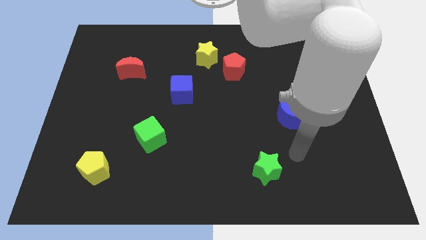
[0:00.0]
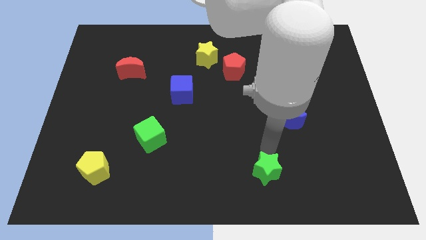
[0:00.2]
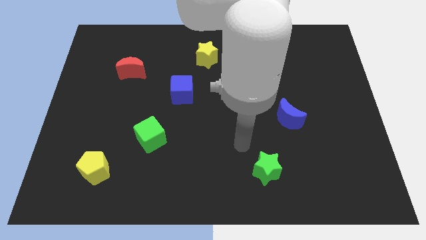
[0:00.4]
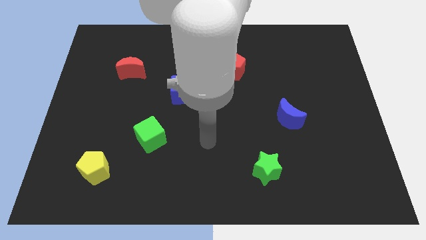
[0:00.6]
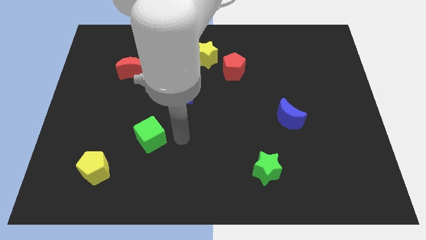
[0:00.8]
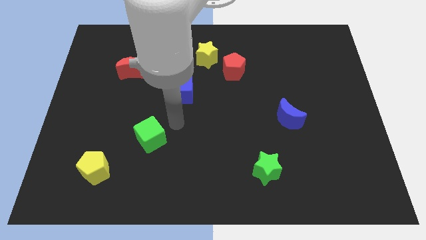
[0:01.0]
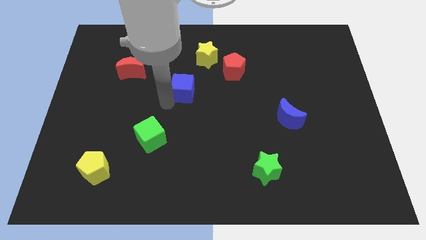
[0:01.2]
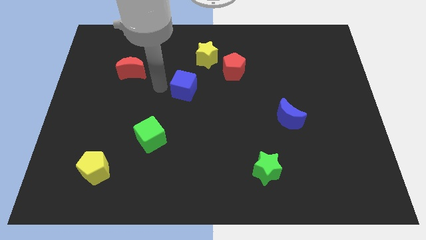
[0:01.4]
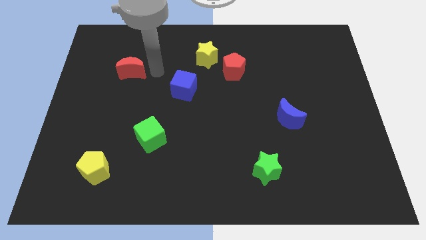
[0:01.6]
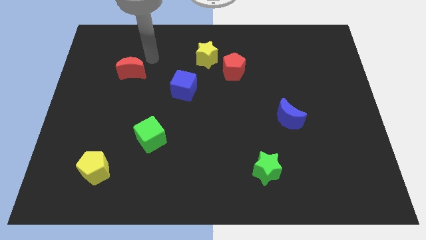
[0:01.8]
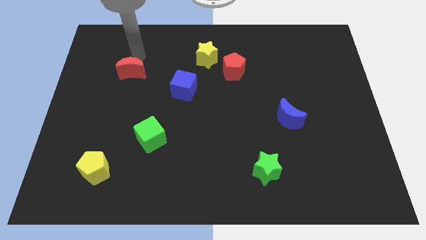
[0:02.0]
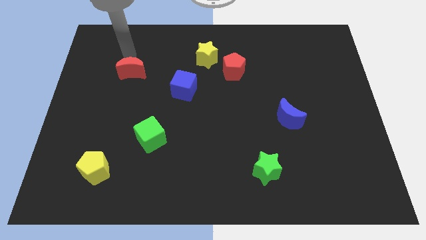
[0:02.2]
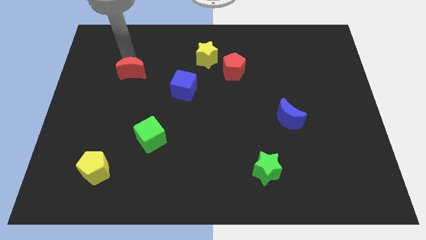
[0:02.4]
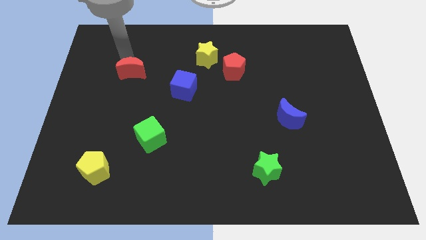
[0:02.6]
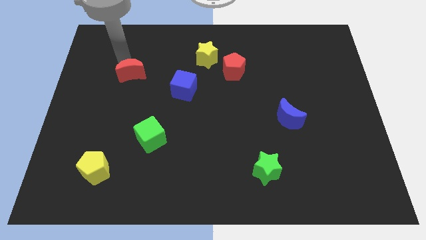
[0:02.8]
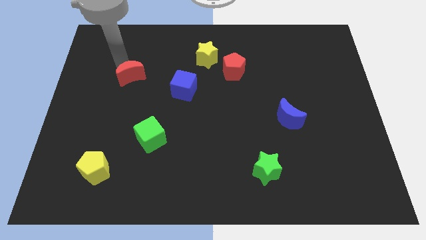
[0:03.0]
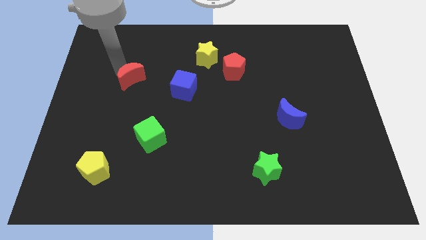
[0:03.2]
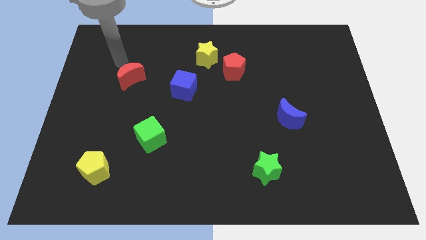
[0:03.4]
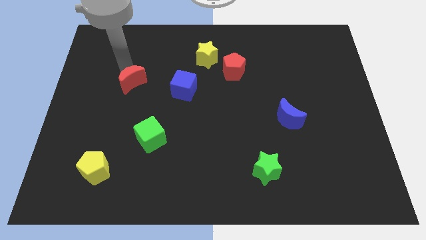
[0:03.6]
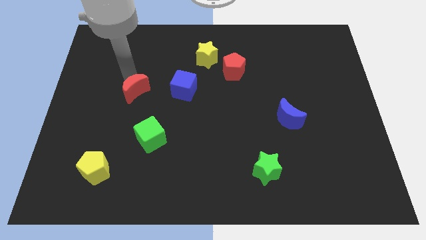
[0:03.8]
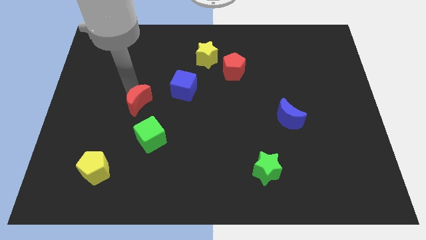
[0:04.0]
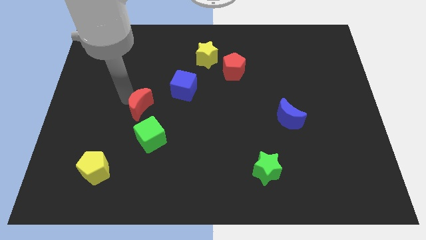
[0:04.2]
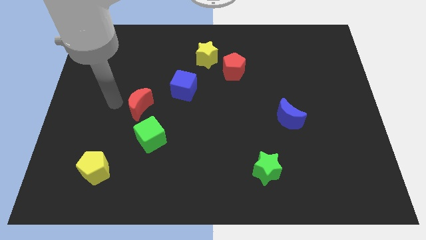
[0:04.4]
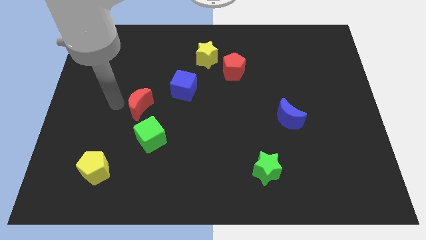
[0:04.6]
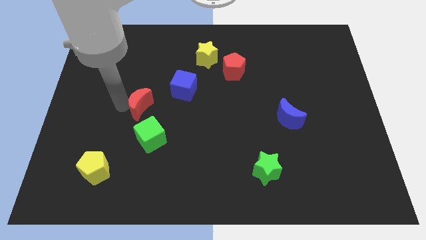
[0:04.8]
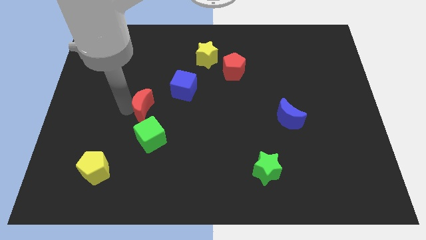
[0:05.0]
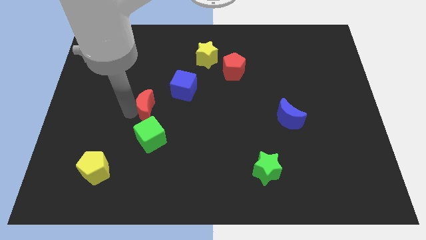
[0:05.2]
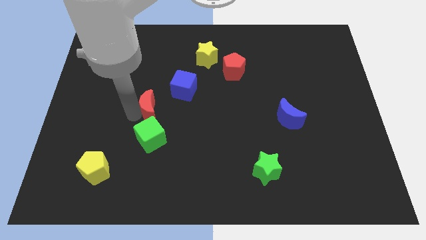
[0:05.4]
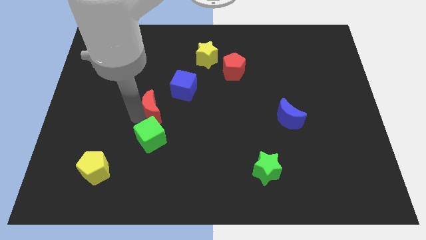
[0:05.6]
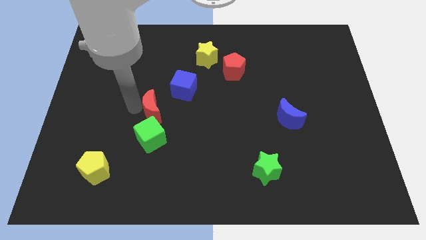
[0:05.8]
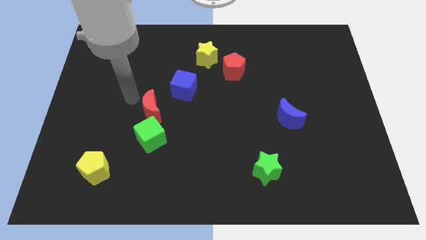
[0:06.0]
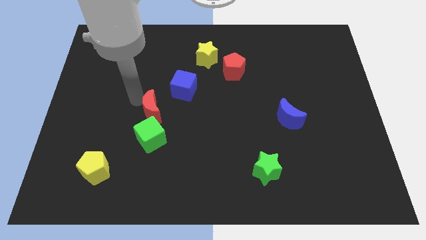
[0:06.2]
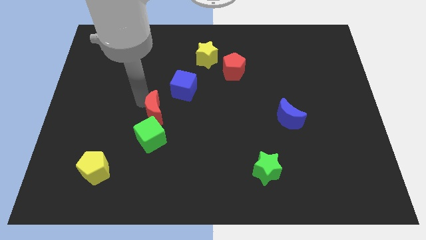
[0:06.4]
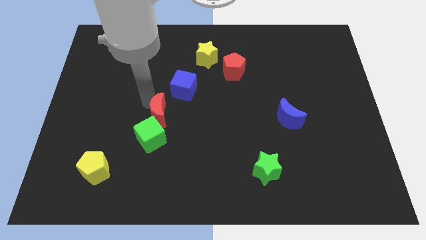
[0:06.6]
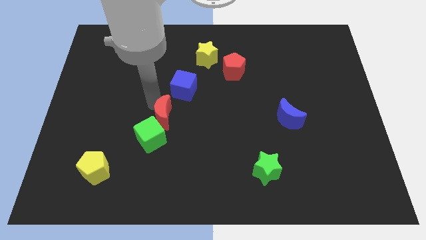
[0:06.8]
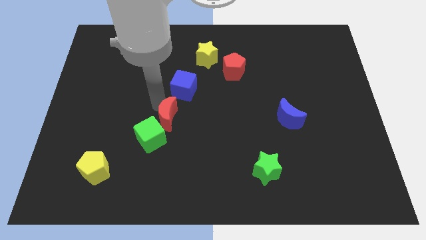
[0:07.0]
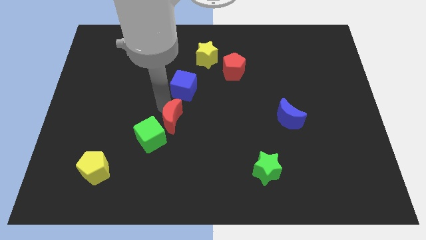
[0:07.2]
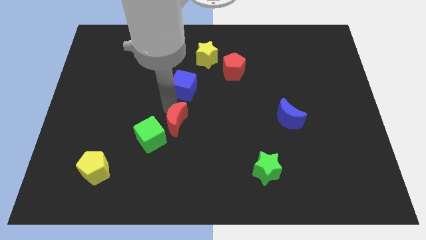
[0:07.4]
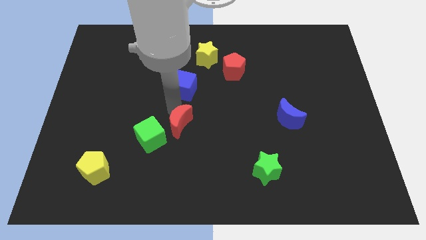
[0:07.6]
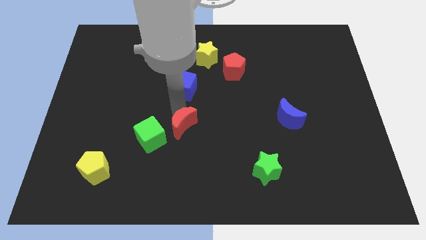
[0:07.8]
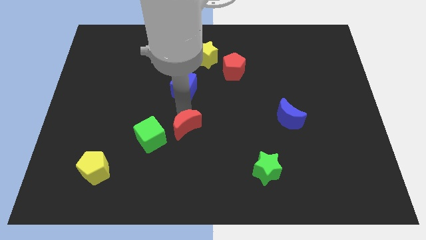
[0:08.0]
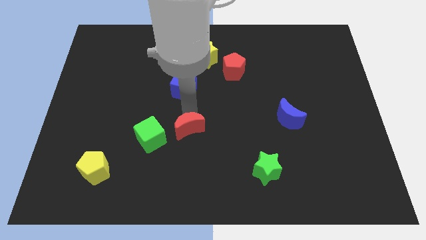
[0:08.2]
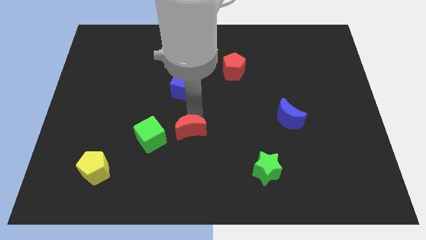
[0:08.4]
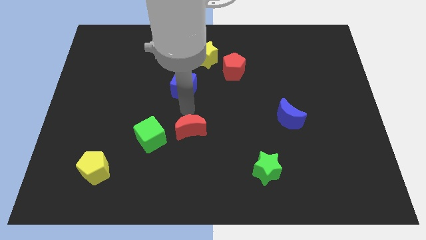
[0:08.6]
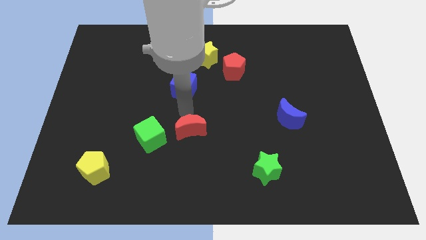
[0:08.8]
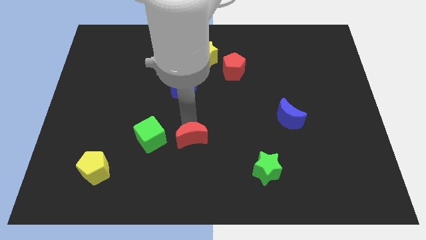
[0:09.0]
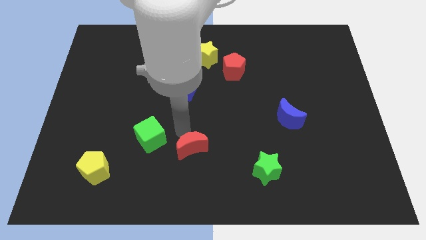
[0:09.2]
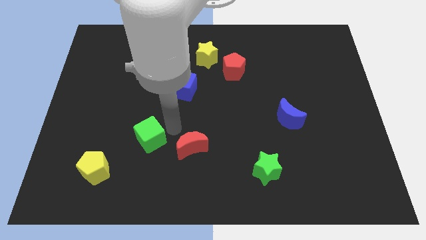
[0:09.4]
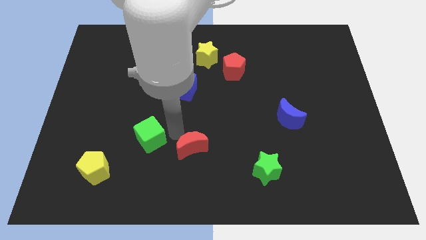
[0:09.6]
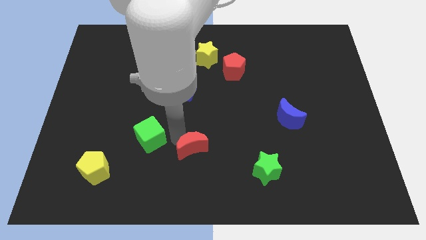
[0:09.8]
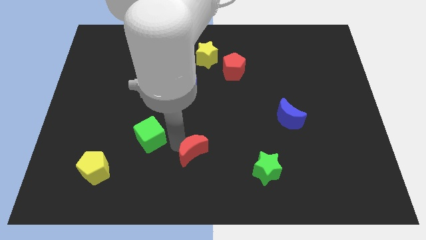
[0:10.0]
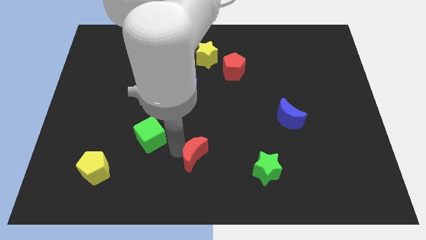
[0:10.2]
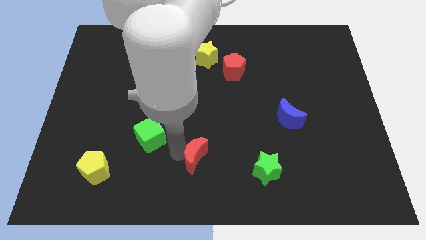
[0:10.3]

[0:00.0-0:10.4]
move the red moon to the left side of the green star

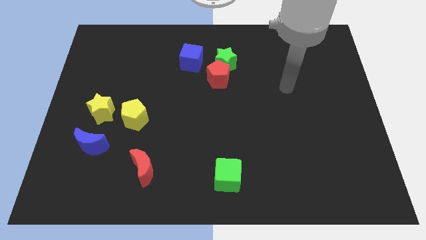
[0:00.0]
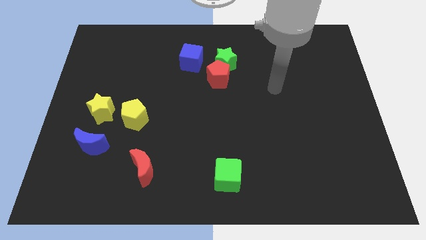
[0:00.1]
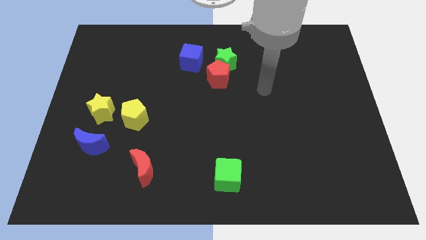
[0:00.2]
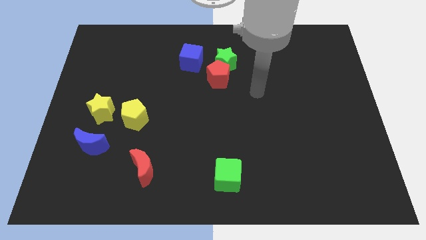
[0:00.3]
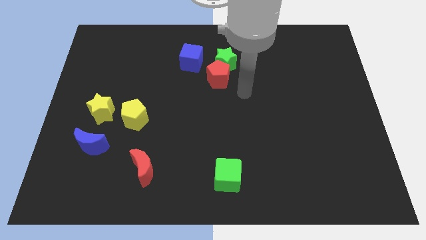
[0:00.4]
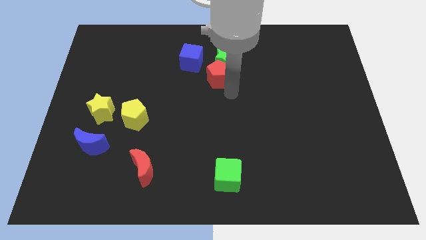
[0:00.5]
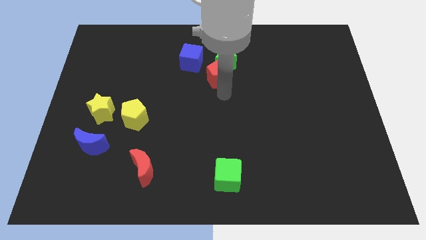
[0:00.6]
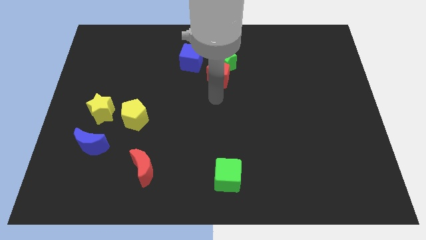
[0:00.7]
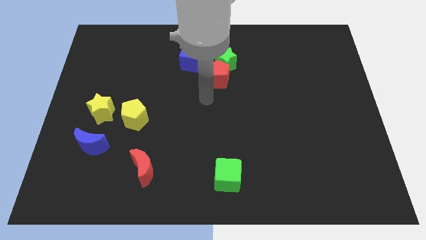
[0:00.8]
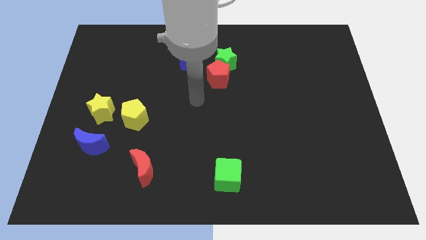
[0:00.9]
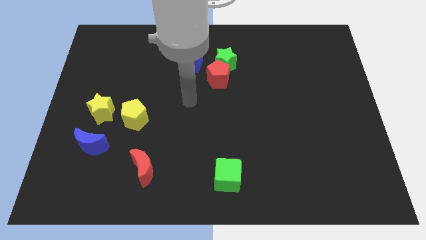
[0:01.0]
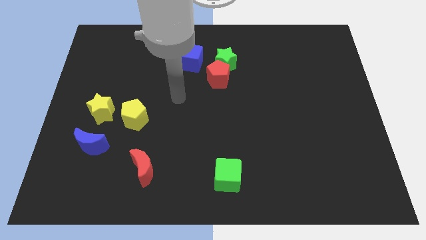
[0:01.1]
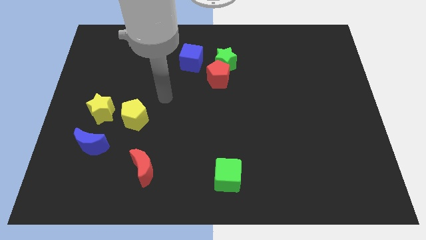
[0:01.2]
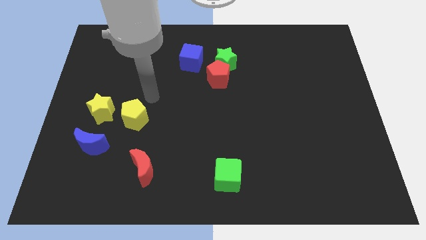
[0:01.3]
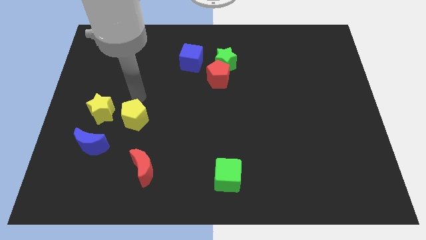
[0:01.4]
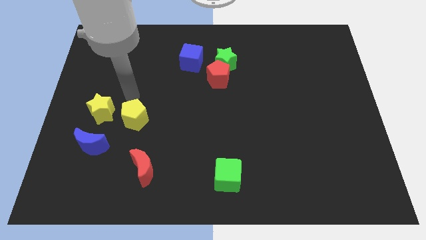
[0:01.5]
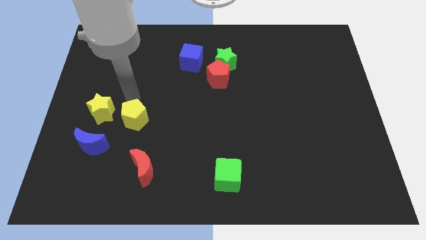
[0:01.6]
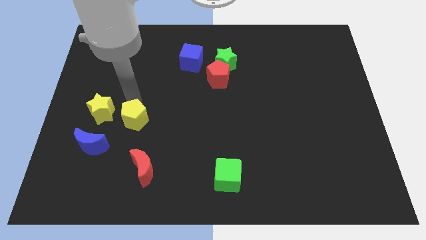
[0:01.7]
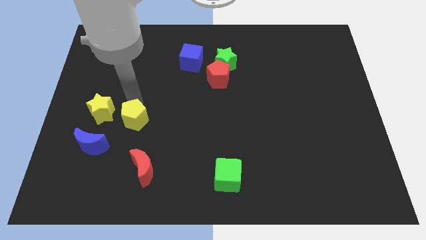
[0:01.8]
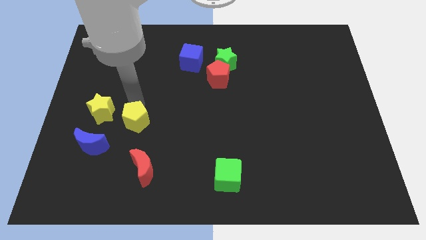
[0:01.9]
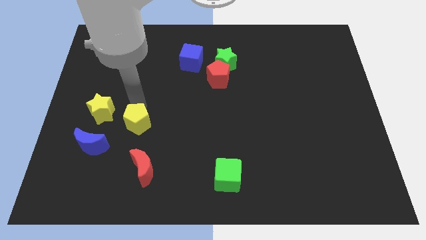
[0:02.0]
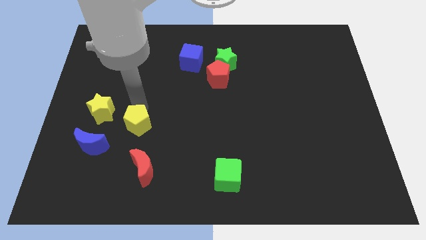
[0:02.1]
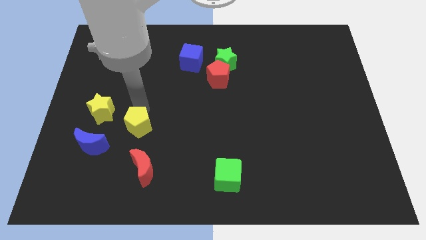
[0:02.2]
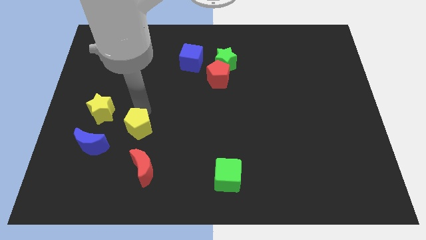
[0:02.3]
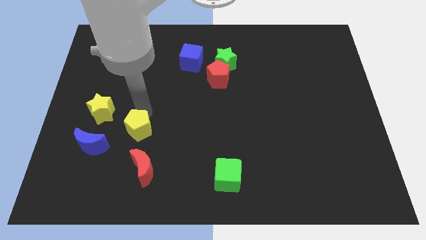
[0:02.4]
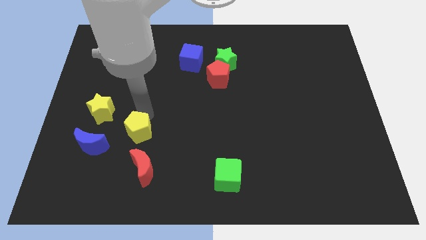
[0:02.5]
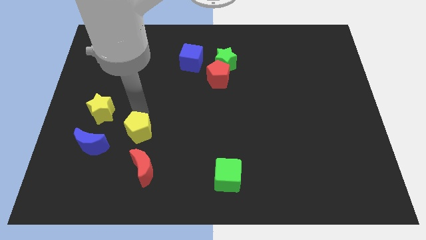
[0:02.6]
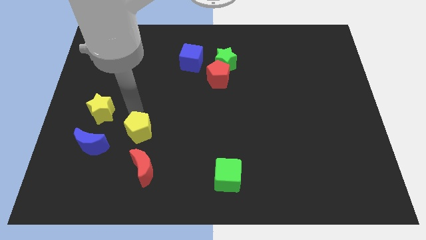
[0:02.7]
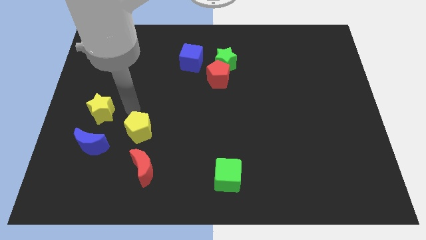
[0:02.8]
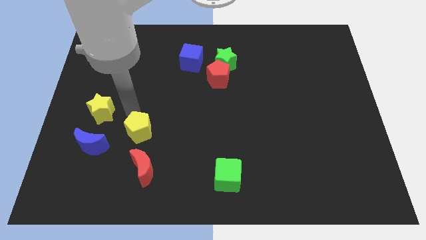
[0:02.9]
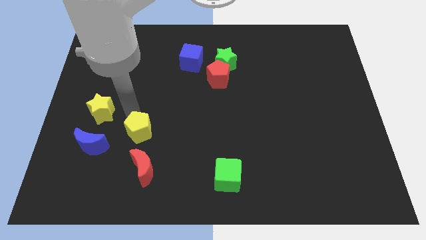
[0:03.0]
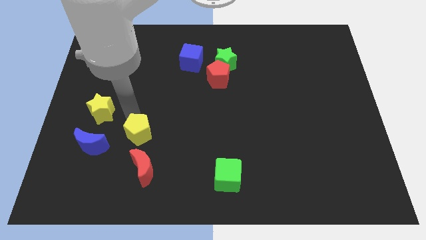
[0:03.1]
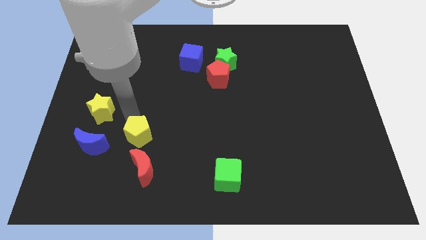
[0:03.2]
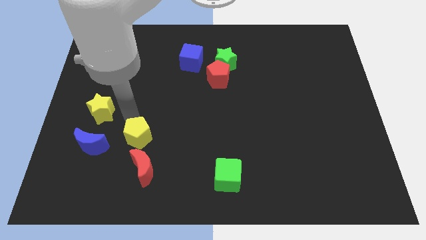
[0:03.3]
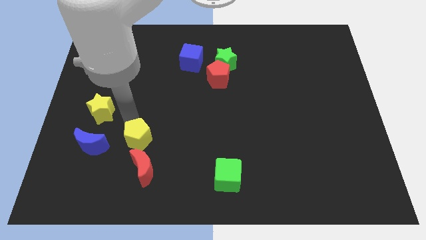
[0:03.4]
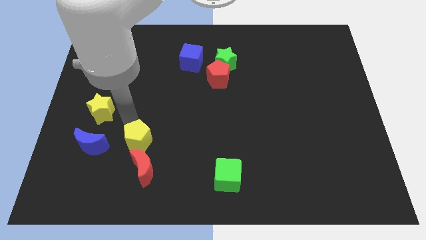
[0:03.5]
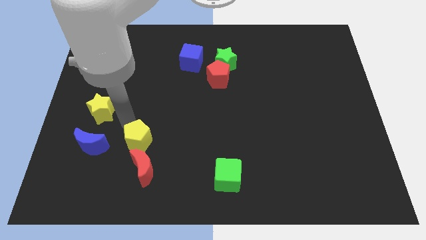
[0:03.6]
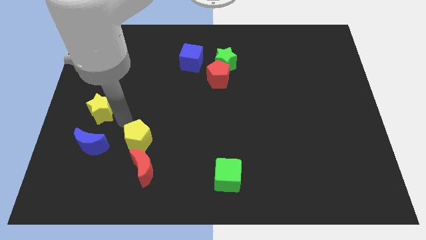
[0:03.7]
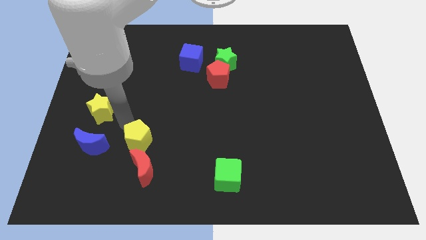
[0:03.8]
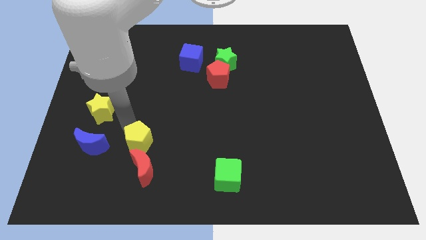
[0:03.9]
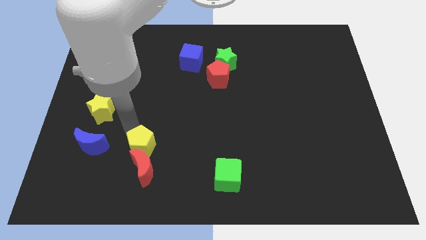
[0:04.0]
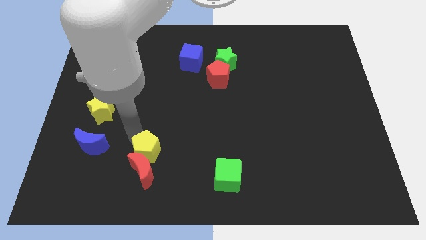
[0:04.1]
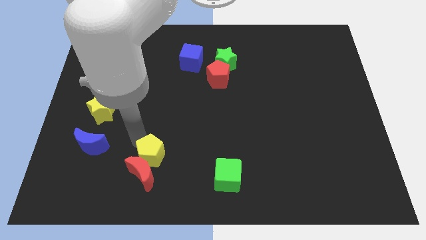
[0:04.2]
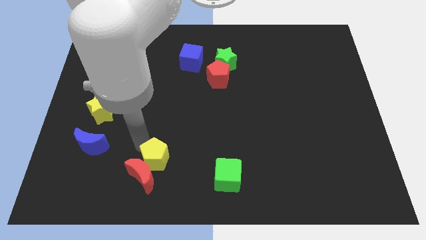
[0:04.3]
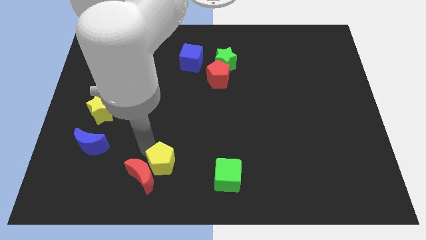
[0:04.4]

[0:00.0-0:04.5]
move the yellow pentagon to the left of the green cube
